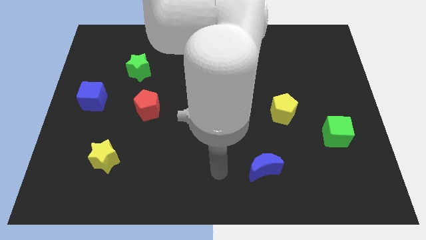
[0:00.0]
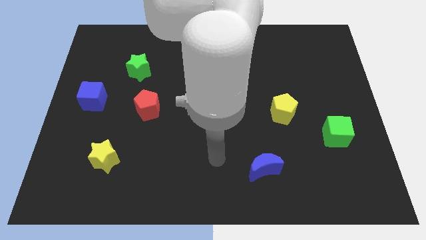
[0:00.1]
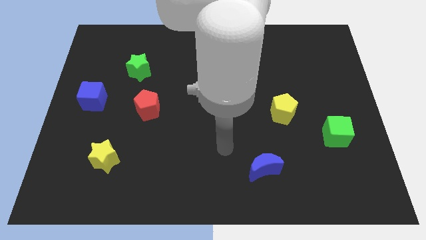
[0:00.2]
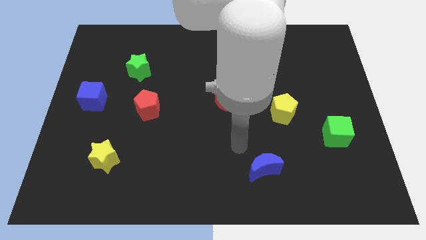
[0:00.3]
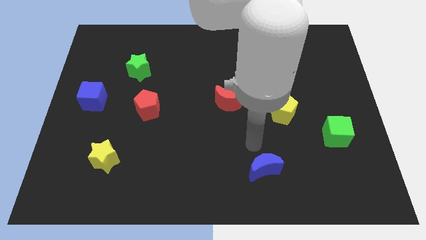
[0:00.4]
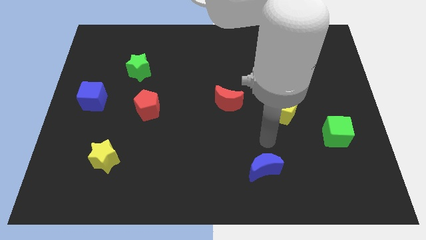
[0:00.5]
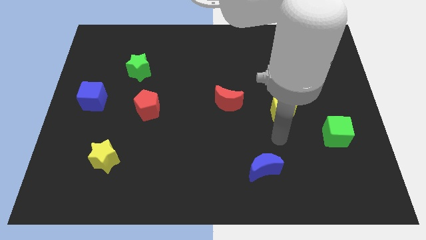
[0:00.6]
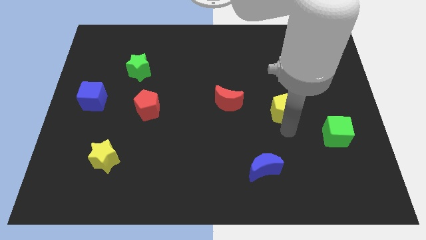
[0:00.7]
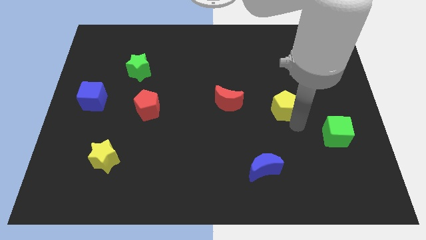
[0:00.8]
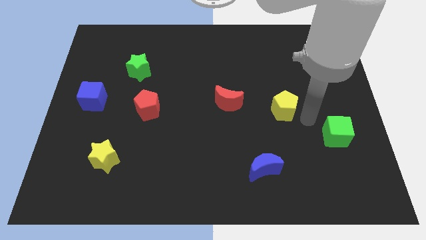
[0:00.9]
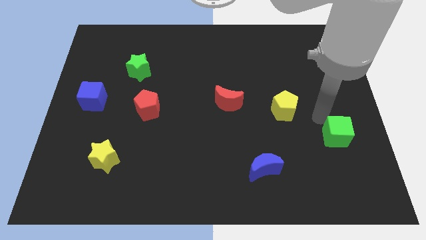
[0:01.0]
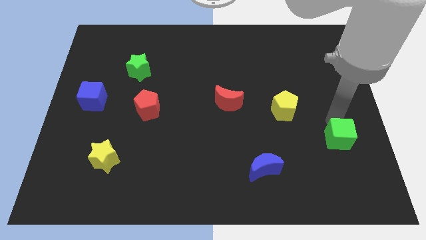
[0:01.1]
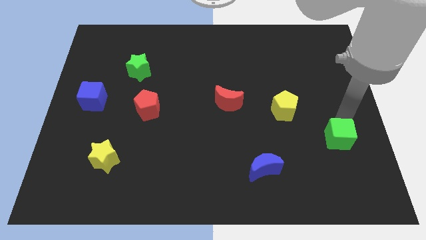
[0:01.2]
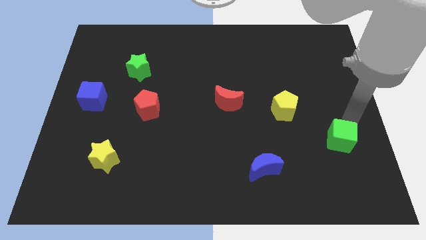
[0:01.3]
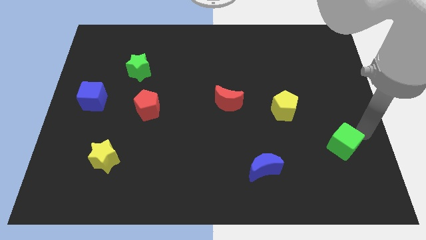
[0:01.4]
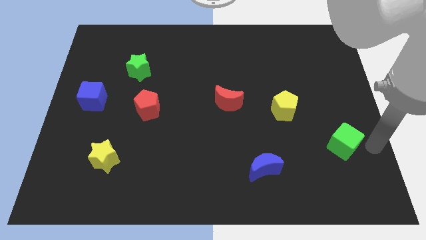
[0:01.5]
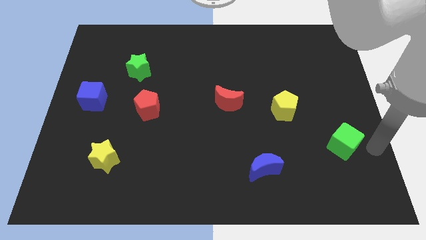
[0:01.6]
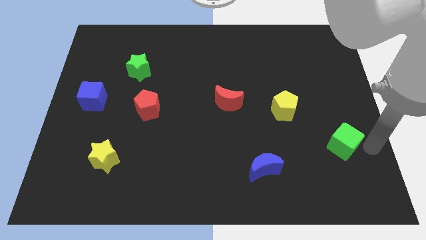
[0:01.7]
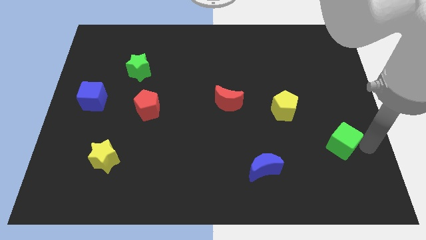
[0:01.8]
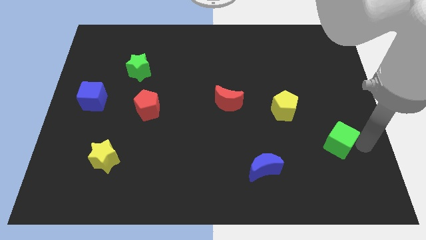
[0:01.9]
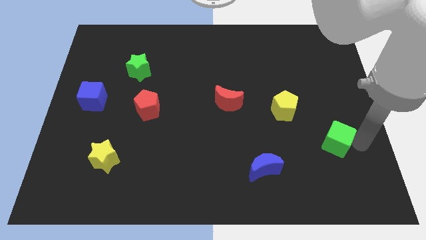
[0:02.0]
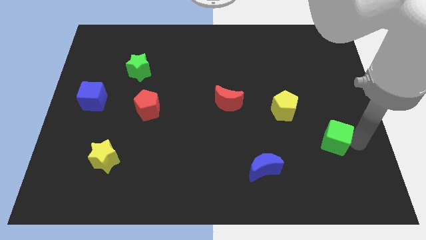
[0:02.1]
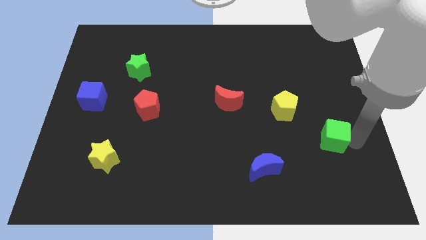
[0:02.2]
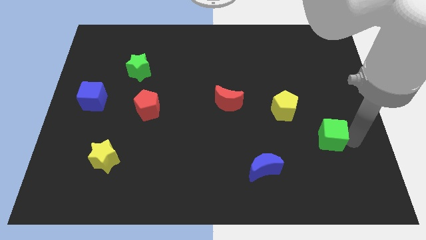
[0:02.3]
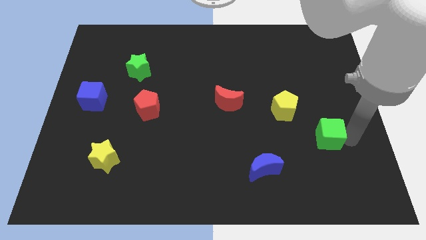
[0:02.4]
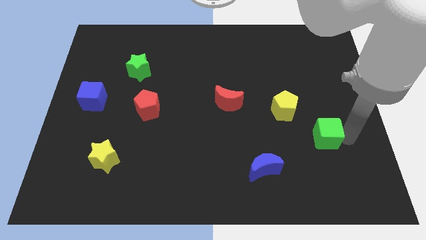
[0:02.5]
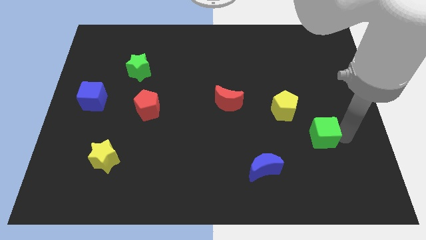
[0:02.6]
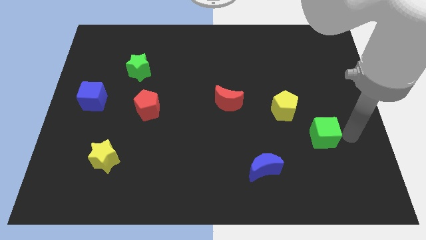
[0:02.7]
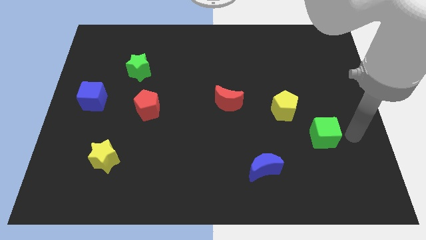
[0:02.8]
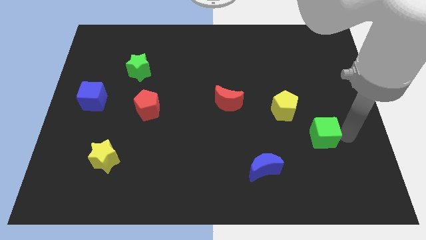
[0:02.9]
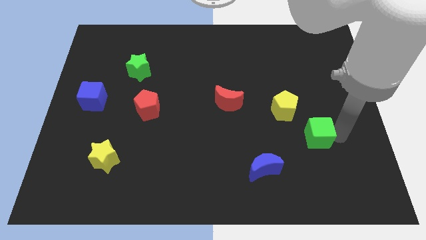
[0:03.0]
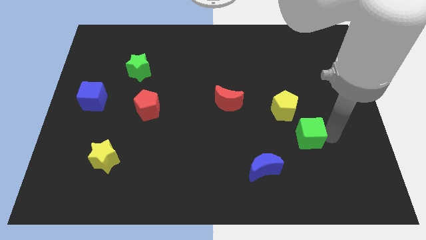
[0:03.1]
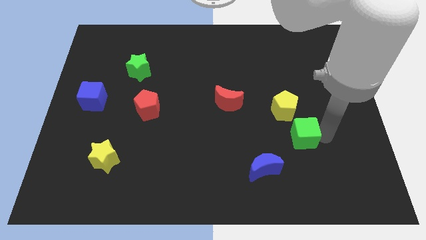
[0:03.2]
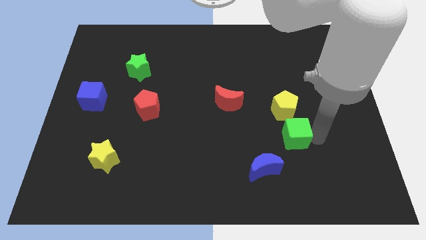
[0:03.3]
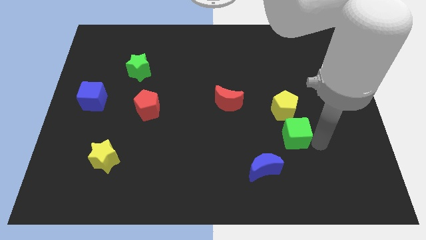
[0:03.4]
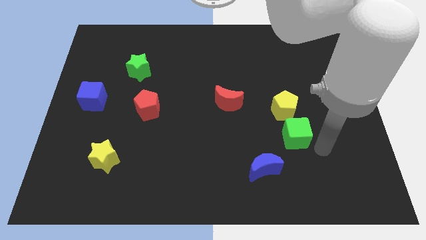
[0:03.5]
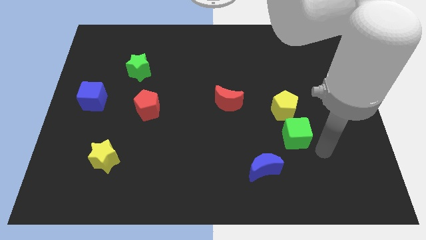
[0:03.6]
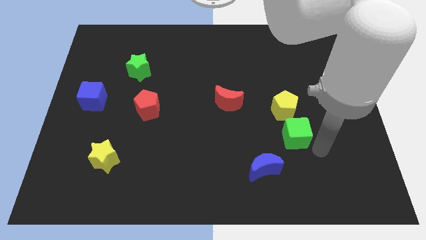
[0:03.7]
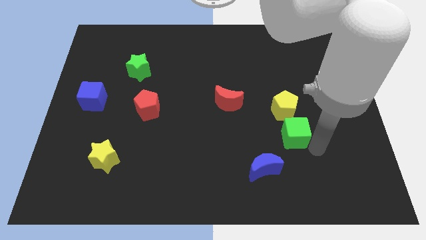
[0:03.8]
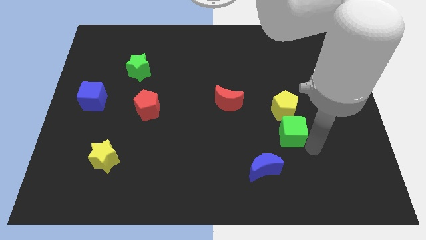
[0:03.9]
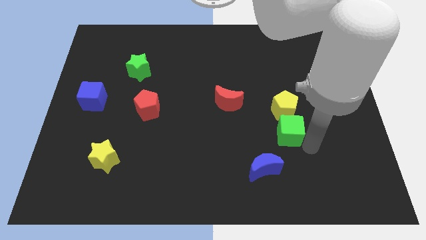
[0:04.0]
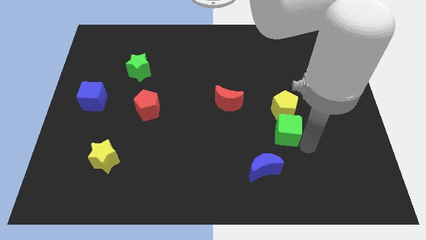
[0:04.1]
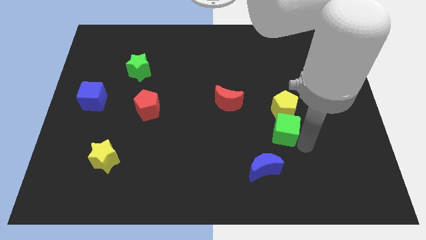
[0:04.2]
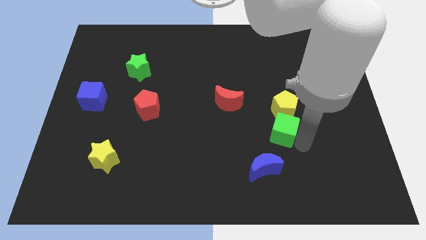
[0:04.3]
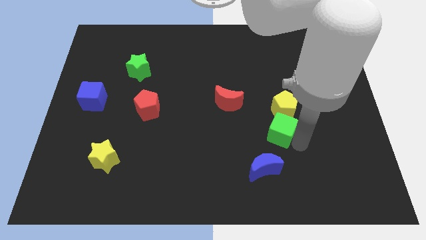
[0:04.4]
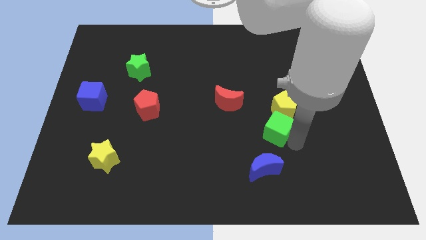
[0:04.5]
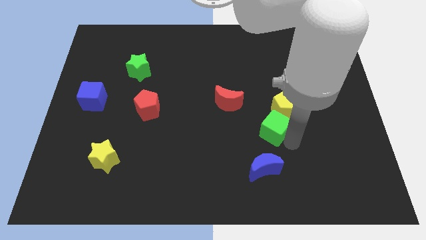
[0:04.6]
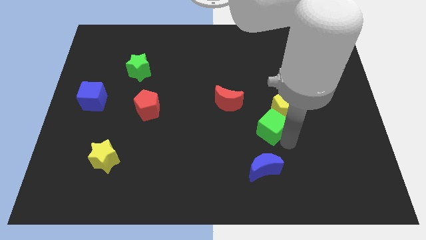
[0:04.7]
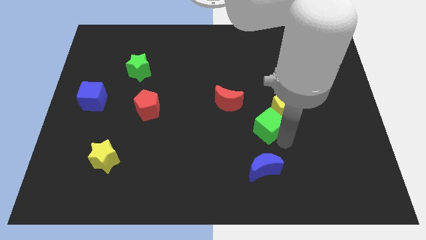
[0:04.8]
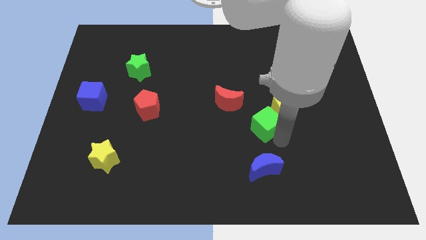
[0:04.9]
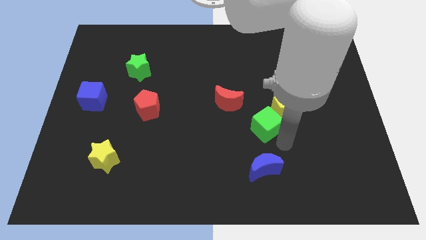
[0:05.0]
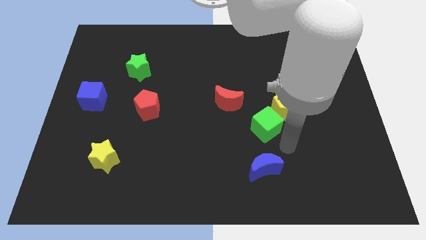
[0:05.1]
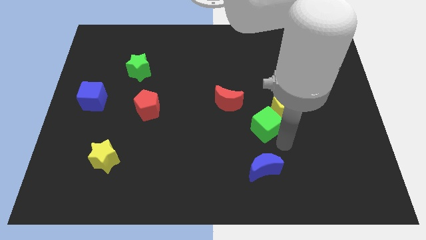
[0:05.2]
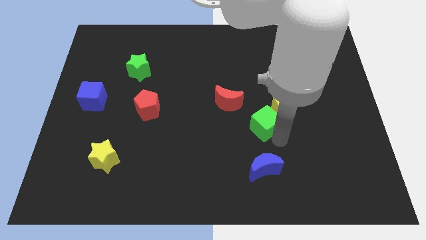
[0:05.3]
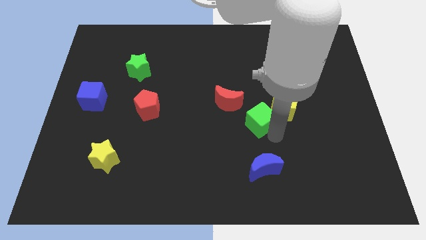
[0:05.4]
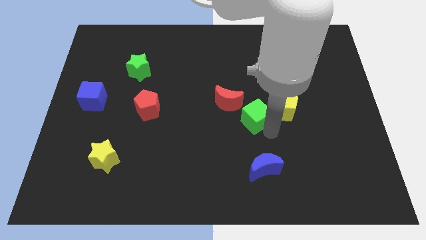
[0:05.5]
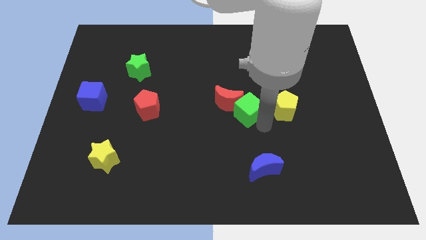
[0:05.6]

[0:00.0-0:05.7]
push the green cube to the red moon

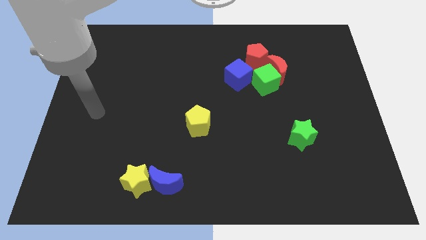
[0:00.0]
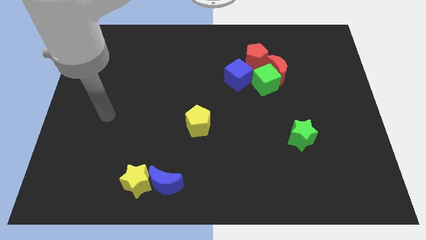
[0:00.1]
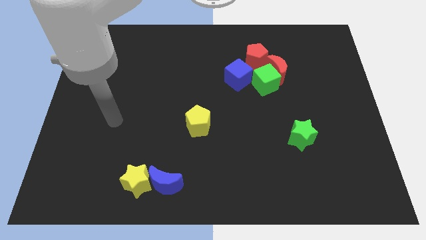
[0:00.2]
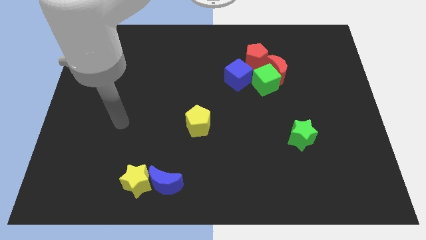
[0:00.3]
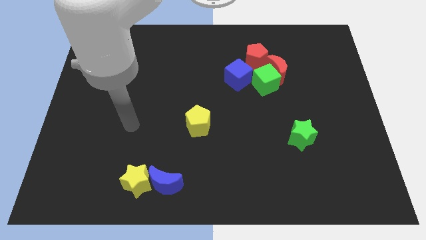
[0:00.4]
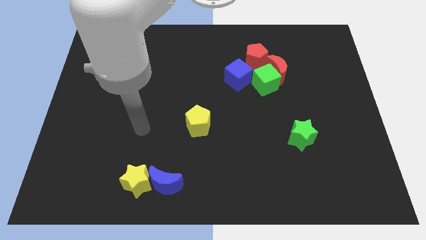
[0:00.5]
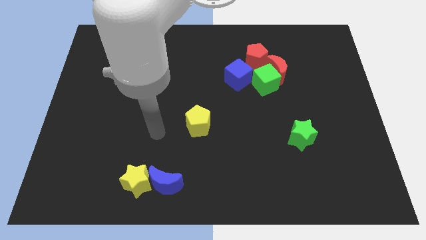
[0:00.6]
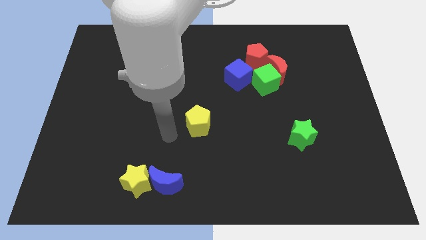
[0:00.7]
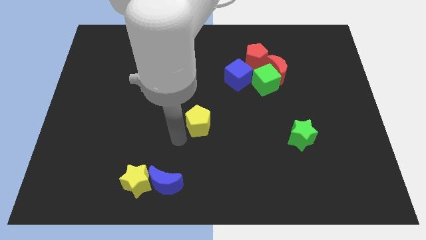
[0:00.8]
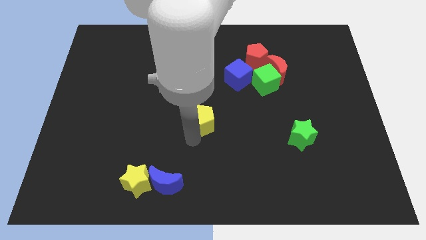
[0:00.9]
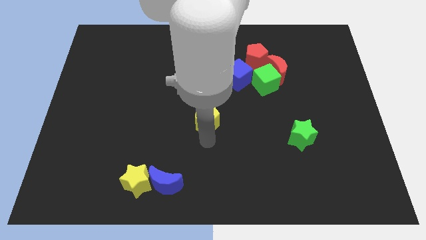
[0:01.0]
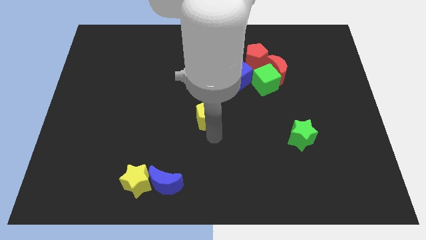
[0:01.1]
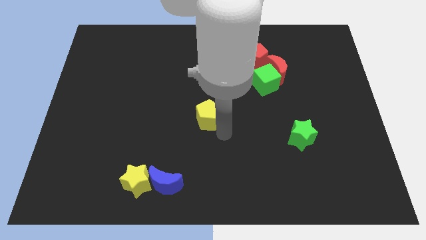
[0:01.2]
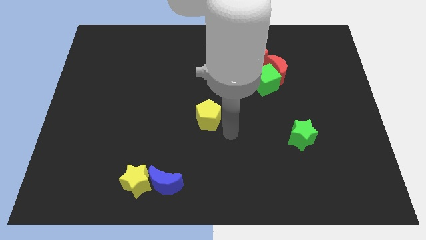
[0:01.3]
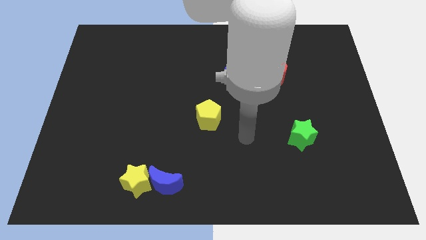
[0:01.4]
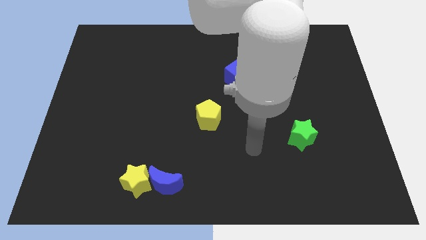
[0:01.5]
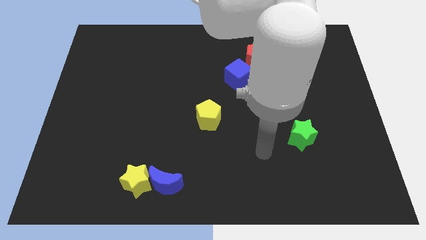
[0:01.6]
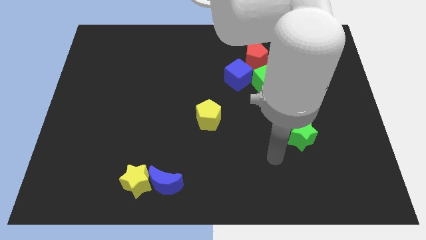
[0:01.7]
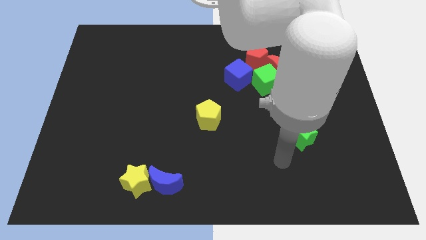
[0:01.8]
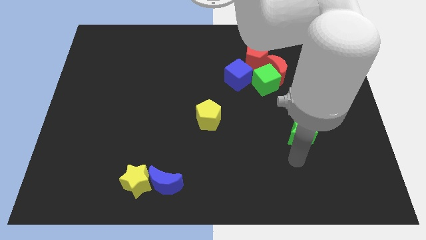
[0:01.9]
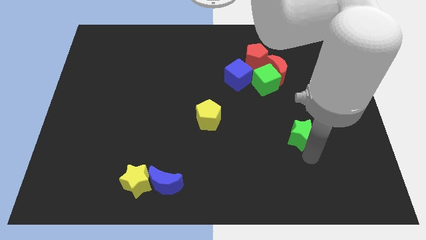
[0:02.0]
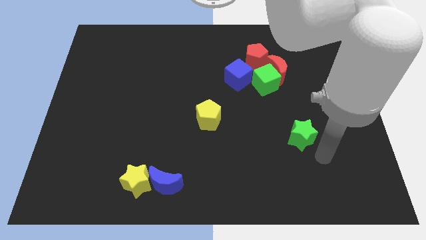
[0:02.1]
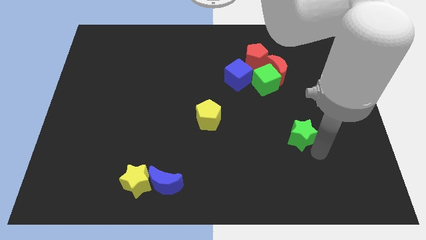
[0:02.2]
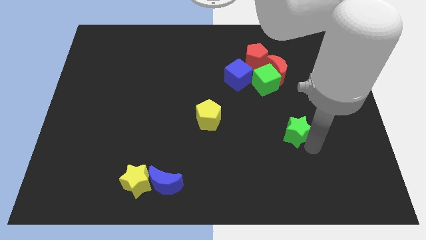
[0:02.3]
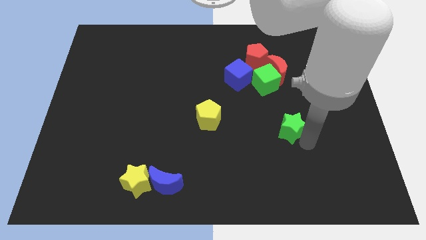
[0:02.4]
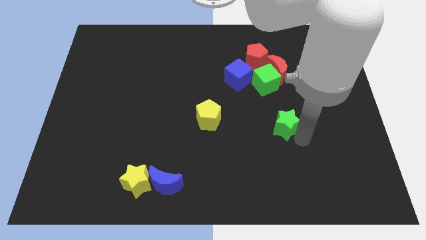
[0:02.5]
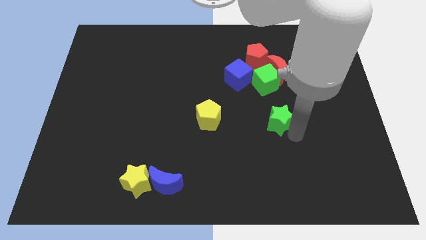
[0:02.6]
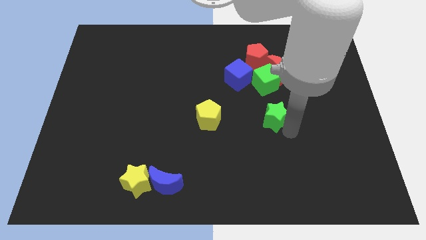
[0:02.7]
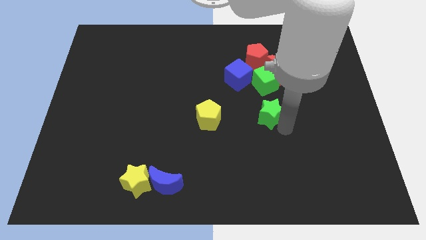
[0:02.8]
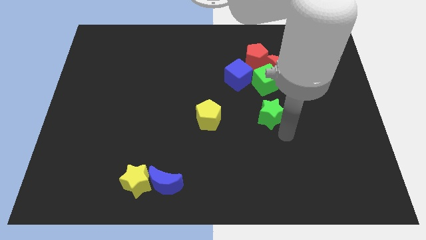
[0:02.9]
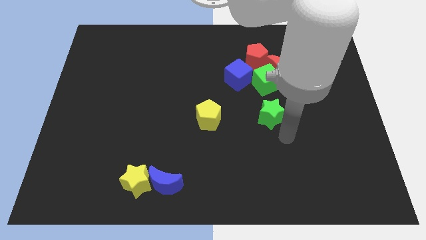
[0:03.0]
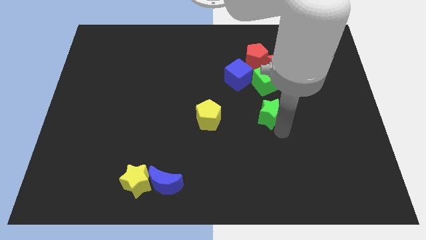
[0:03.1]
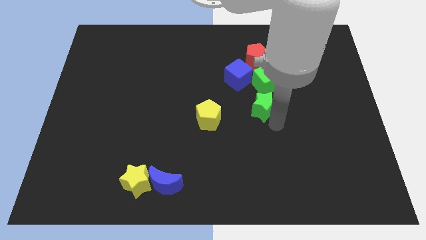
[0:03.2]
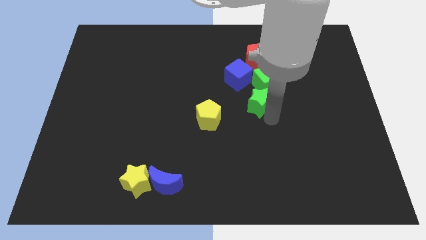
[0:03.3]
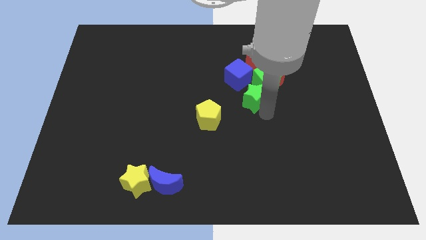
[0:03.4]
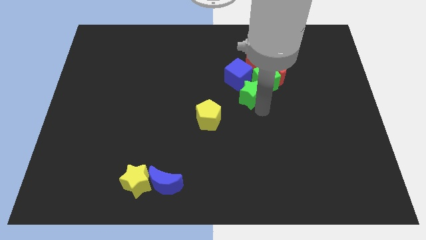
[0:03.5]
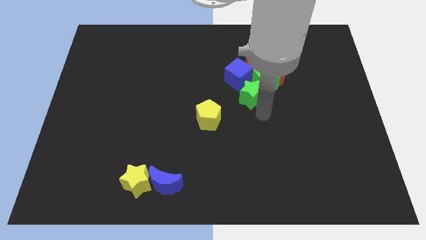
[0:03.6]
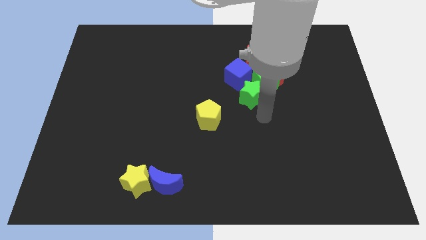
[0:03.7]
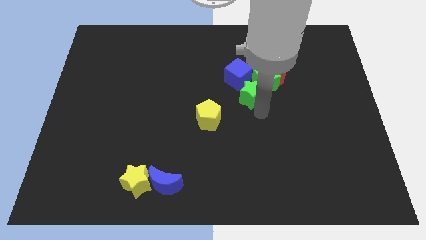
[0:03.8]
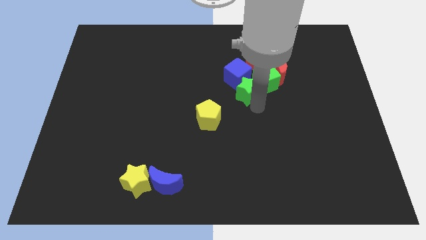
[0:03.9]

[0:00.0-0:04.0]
slide the green star next to the blue cube
